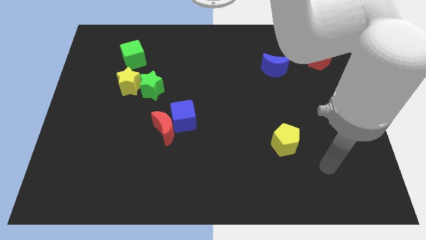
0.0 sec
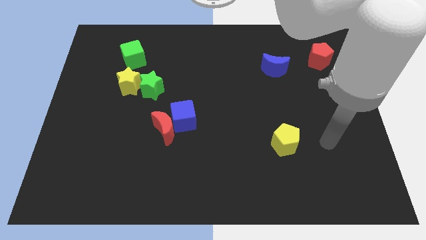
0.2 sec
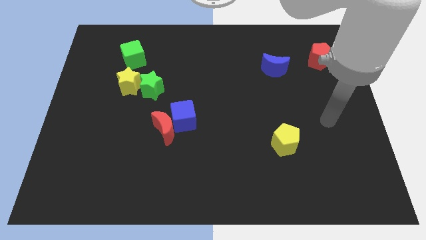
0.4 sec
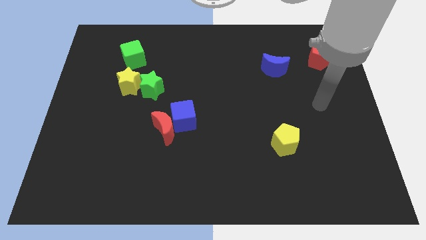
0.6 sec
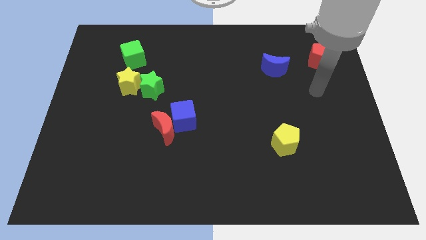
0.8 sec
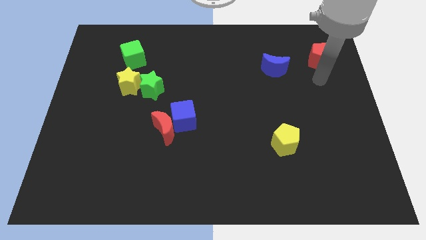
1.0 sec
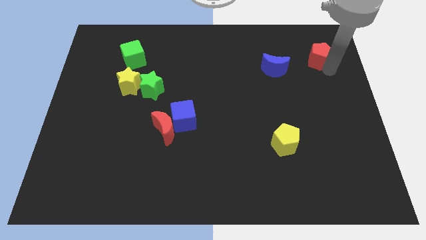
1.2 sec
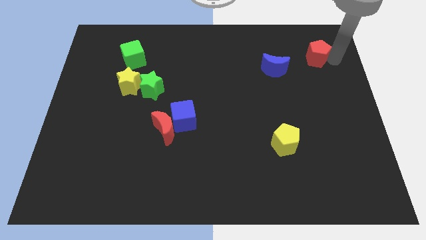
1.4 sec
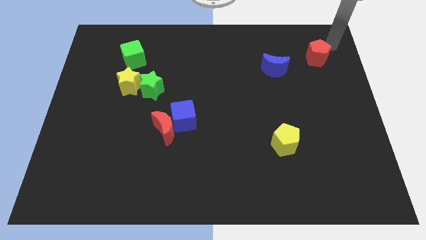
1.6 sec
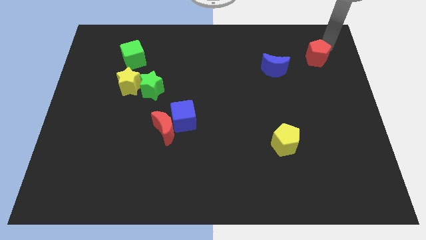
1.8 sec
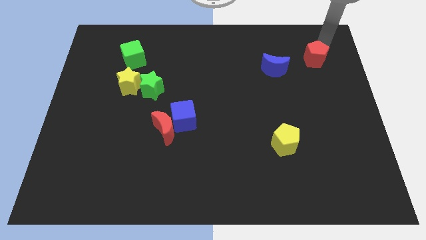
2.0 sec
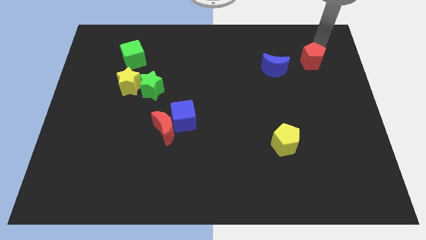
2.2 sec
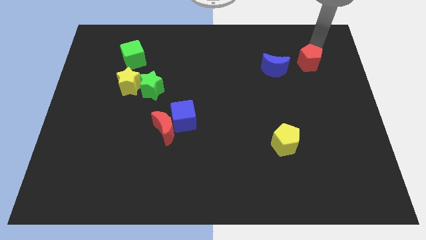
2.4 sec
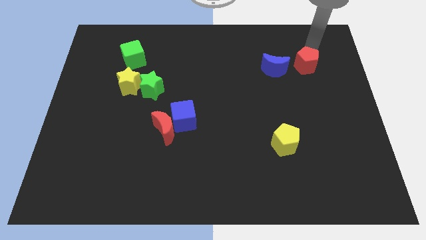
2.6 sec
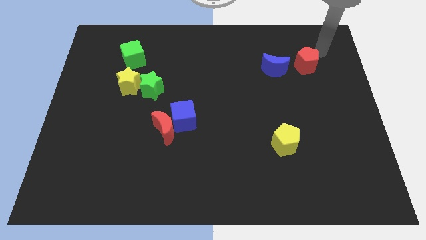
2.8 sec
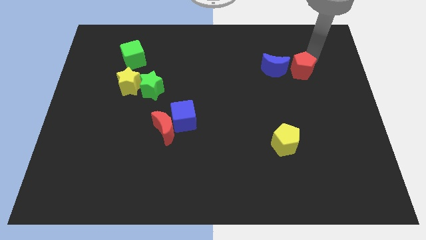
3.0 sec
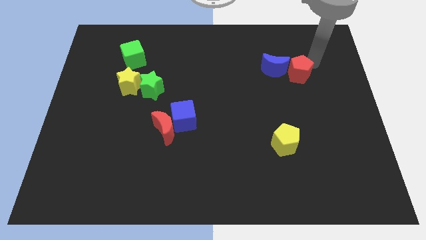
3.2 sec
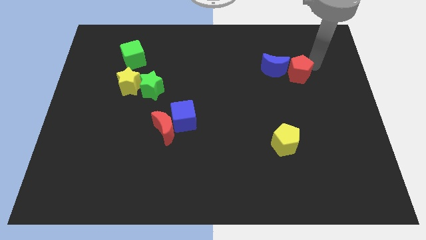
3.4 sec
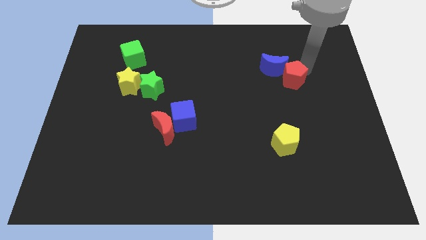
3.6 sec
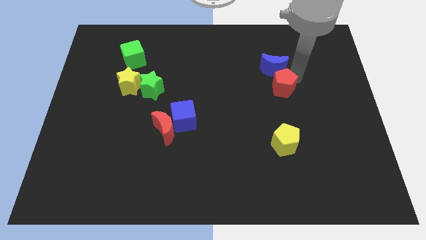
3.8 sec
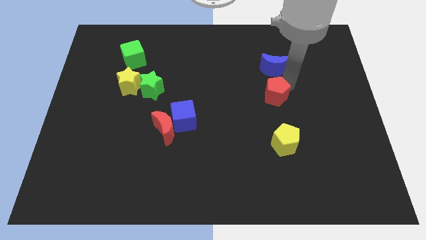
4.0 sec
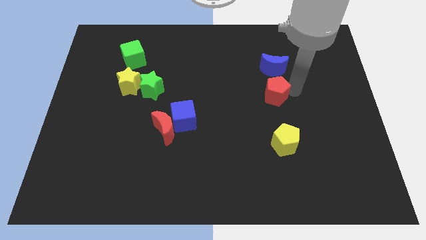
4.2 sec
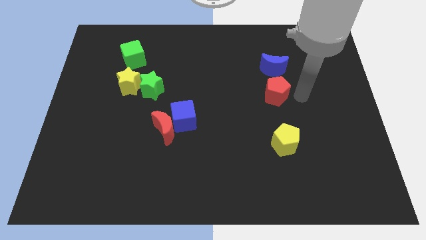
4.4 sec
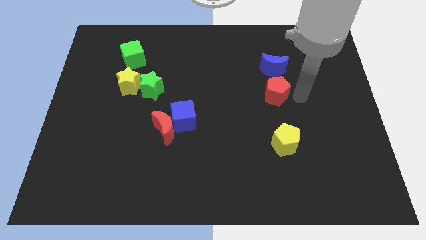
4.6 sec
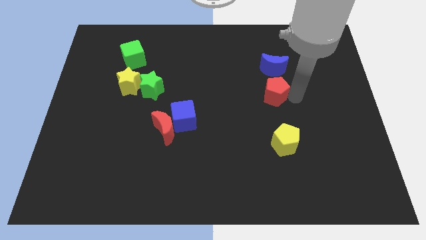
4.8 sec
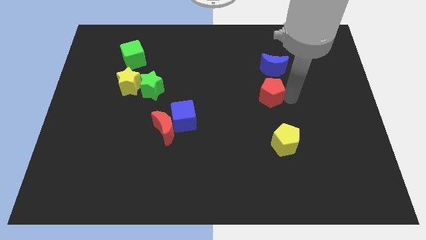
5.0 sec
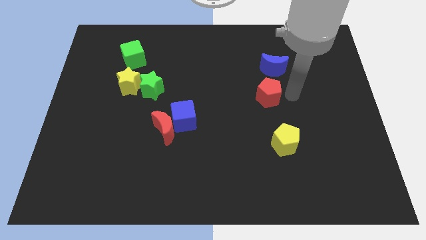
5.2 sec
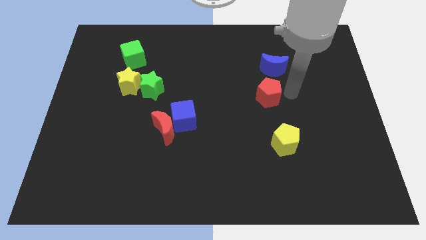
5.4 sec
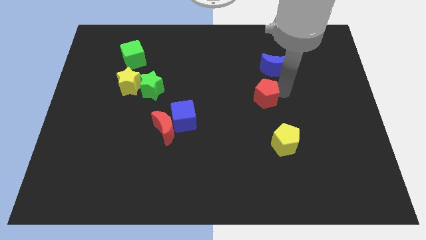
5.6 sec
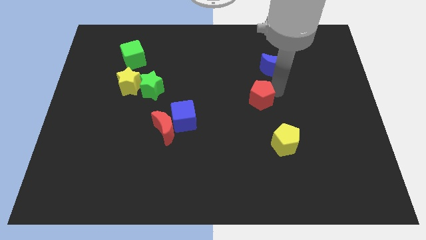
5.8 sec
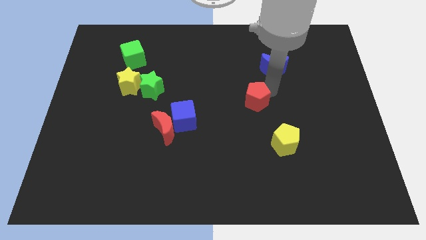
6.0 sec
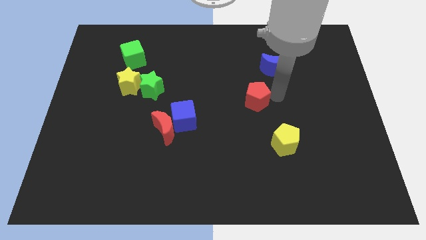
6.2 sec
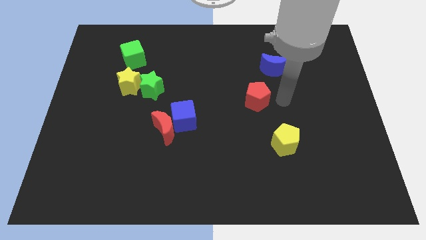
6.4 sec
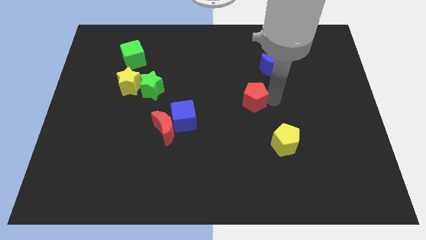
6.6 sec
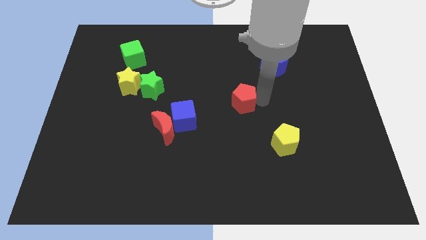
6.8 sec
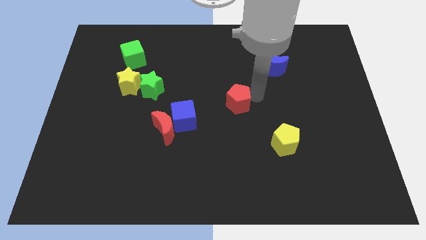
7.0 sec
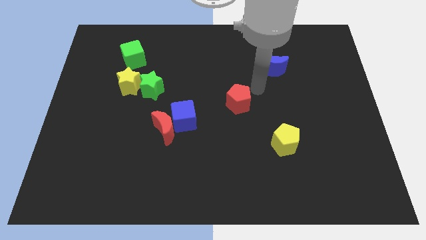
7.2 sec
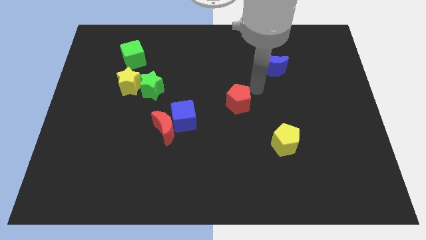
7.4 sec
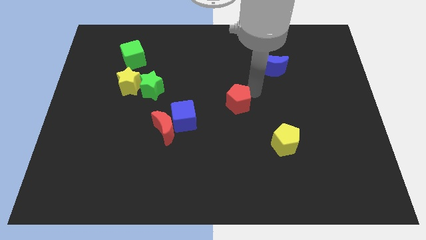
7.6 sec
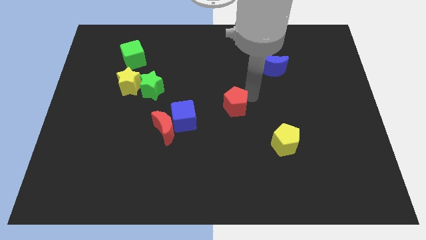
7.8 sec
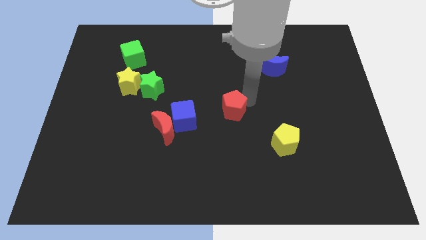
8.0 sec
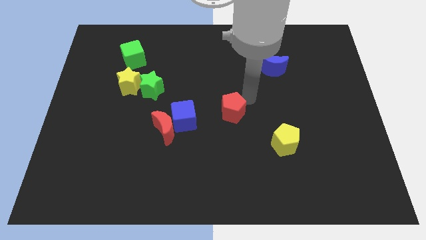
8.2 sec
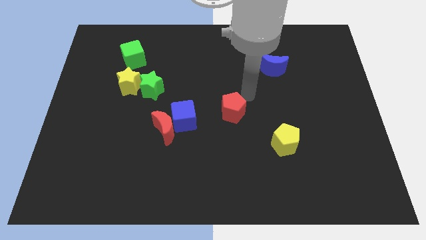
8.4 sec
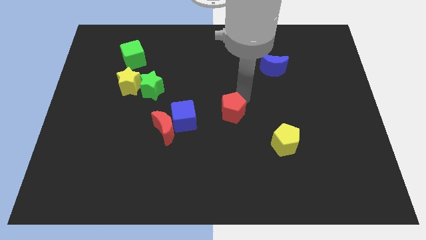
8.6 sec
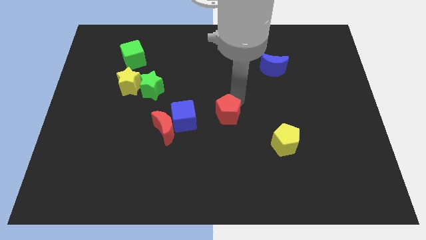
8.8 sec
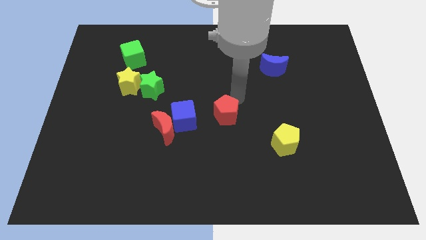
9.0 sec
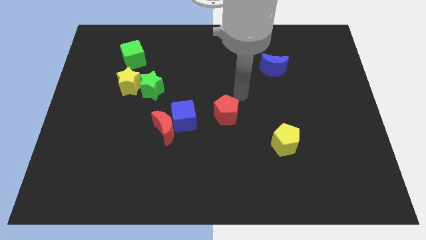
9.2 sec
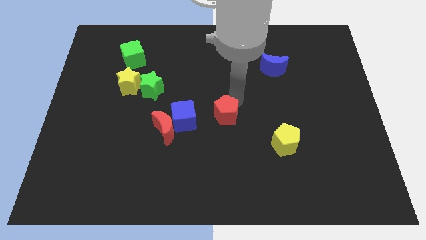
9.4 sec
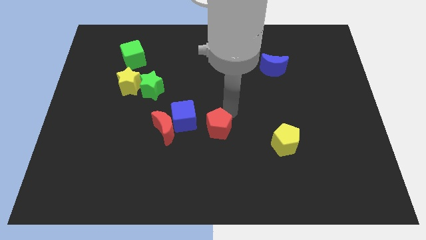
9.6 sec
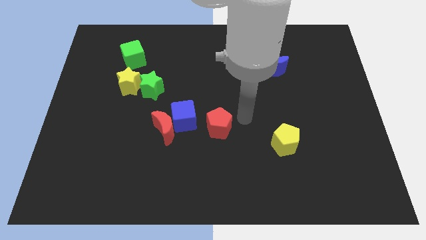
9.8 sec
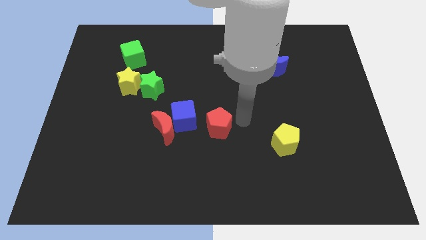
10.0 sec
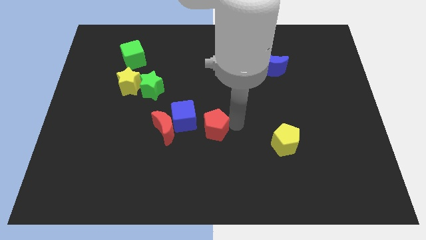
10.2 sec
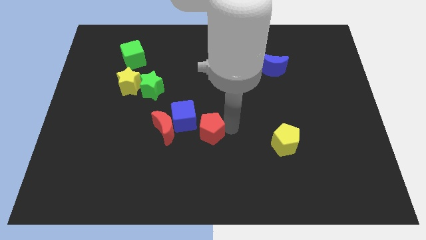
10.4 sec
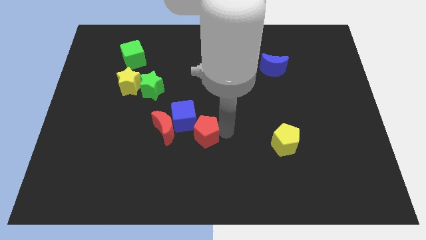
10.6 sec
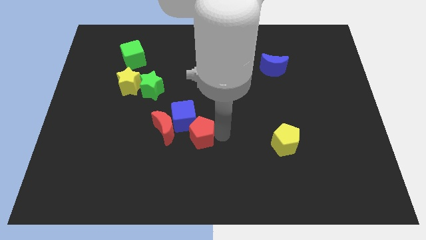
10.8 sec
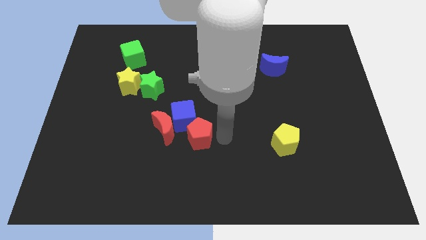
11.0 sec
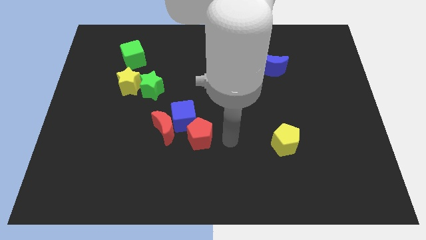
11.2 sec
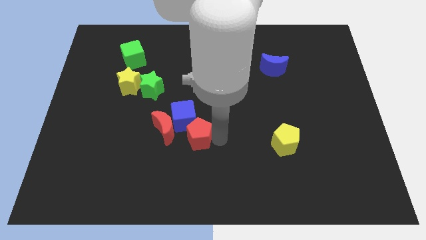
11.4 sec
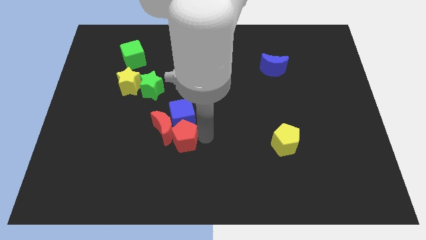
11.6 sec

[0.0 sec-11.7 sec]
push the red pentagon towards the red moon

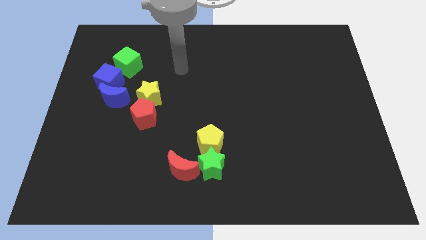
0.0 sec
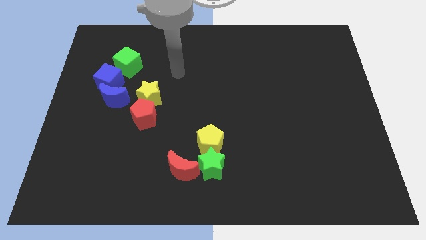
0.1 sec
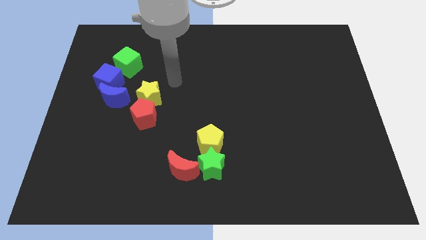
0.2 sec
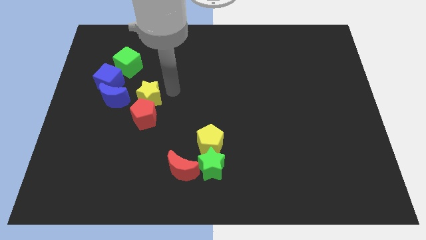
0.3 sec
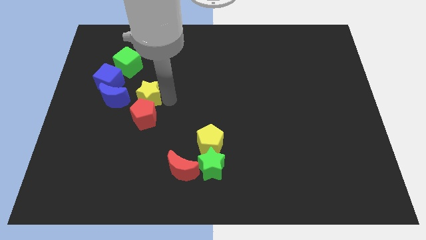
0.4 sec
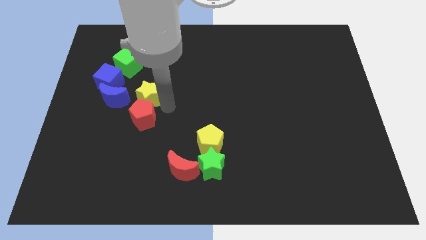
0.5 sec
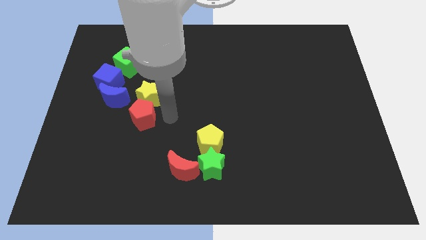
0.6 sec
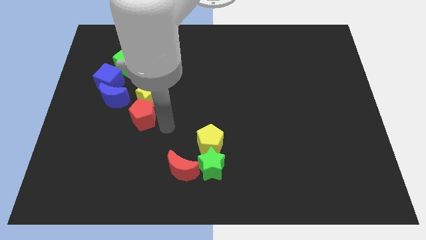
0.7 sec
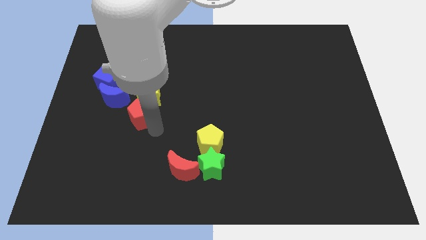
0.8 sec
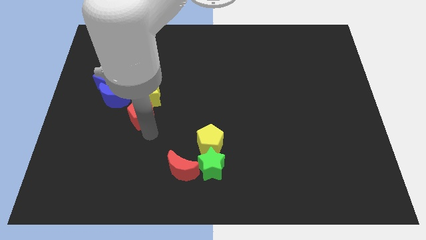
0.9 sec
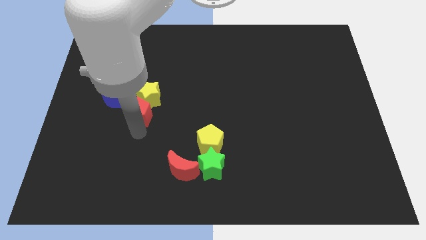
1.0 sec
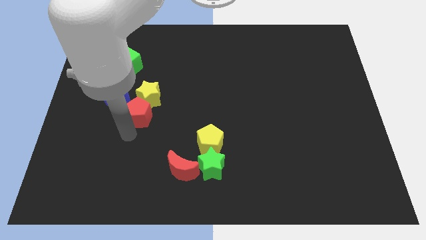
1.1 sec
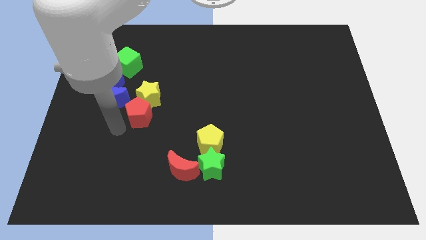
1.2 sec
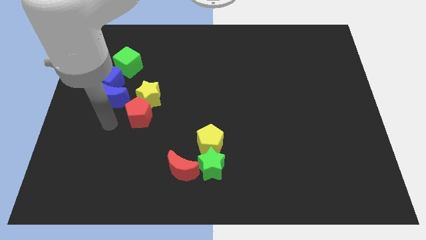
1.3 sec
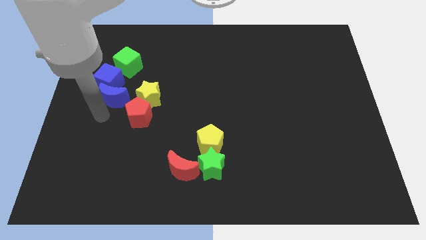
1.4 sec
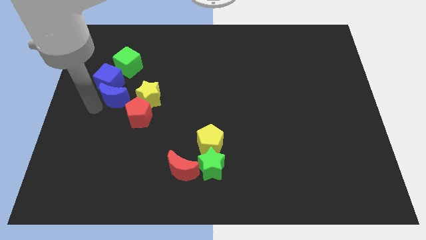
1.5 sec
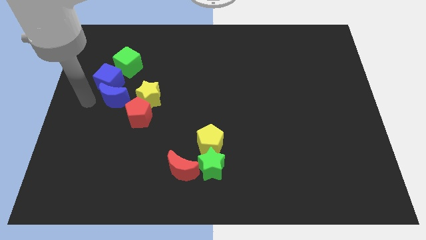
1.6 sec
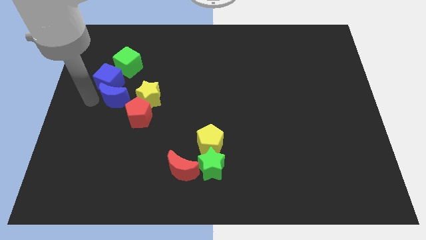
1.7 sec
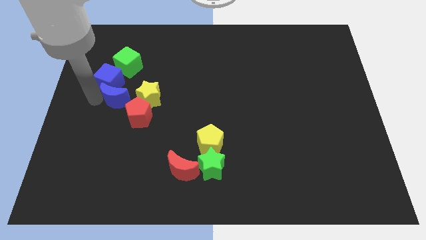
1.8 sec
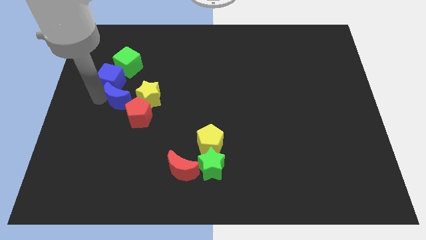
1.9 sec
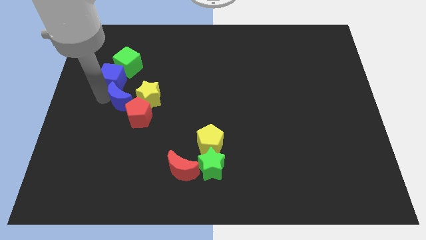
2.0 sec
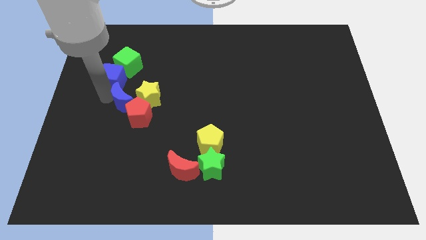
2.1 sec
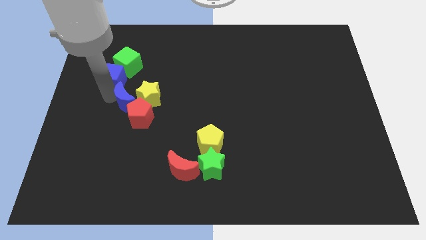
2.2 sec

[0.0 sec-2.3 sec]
move the blue moon towards the yellow star
